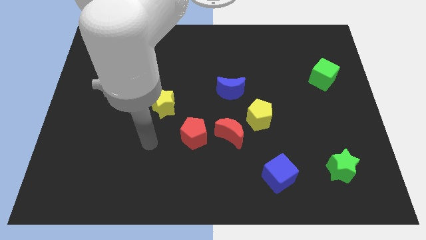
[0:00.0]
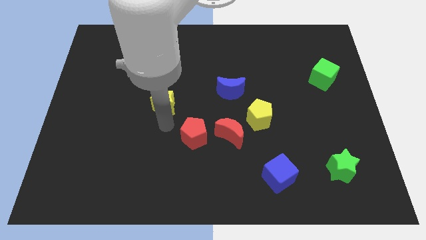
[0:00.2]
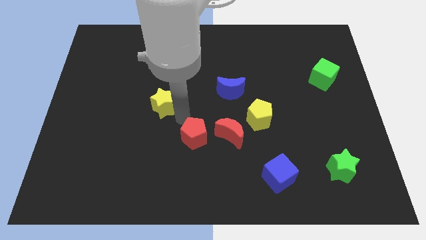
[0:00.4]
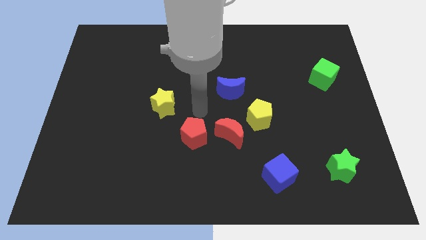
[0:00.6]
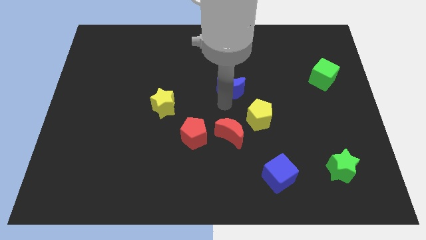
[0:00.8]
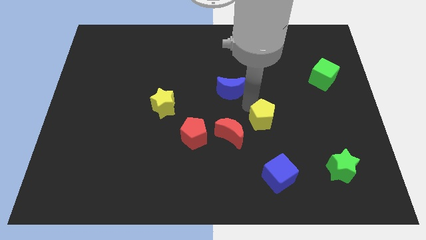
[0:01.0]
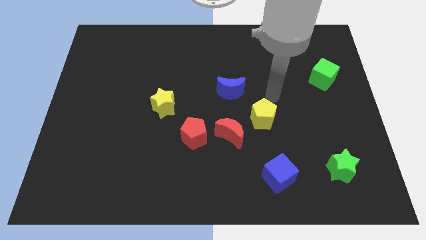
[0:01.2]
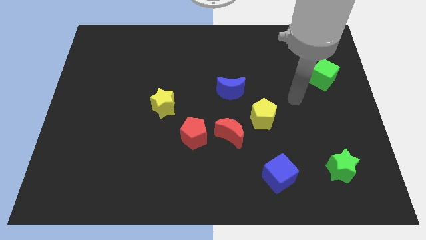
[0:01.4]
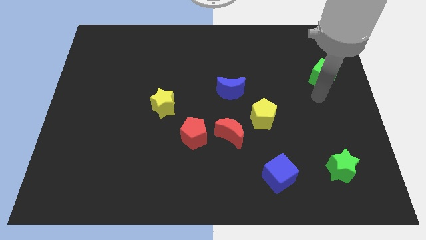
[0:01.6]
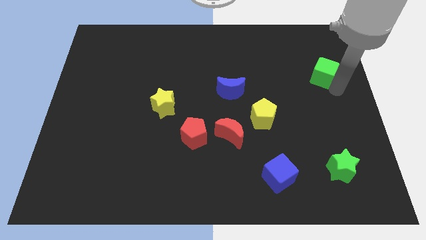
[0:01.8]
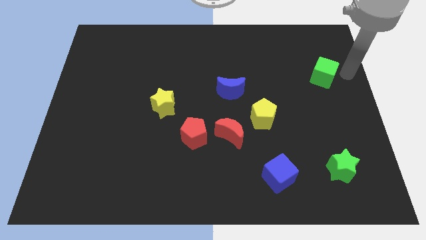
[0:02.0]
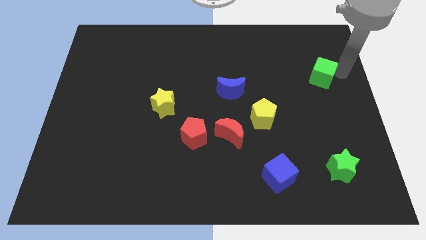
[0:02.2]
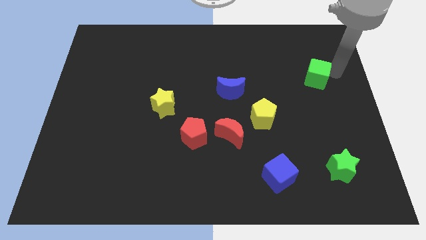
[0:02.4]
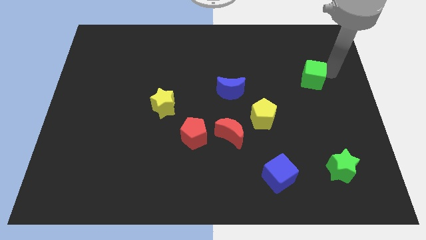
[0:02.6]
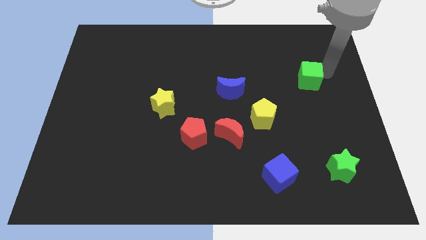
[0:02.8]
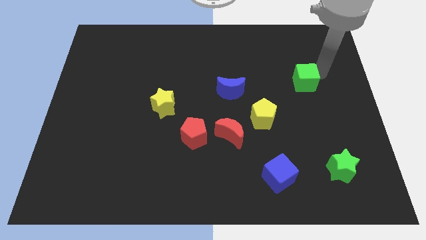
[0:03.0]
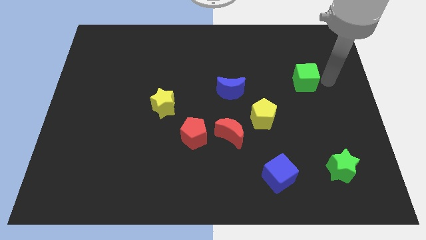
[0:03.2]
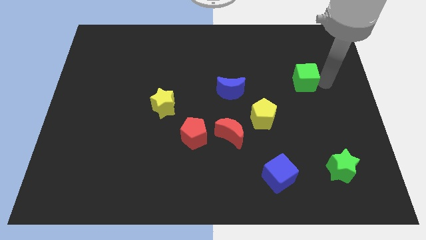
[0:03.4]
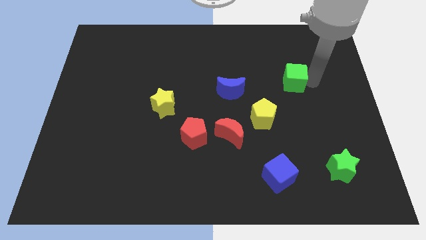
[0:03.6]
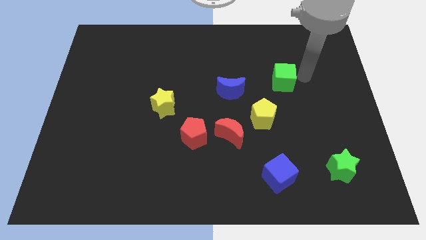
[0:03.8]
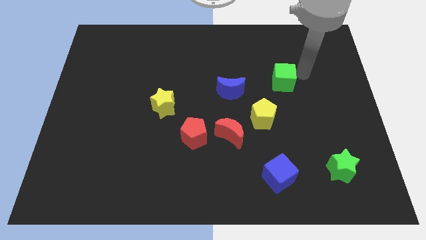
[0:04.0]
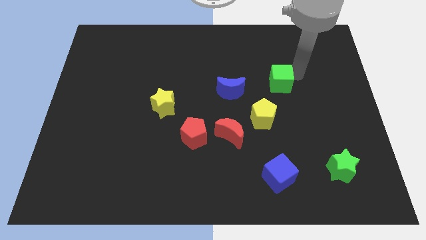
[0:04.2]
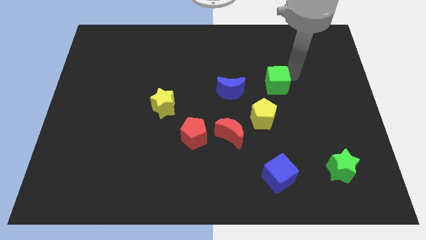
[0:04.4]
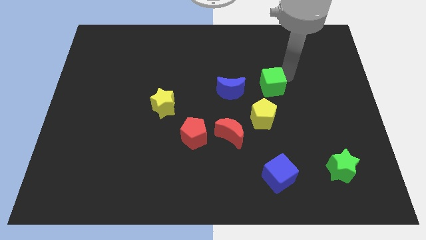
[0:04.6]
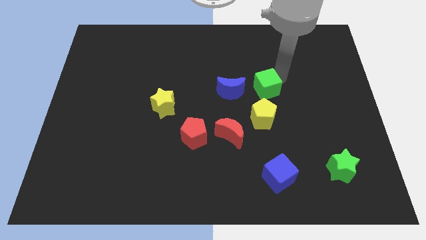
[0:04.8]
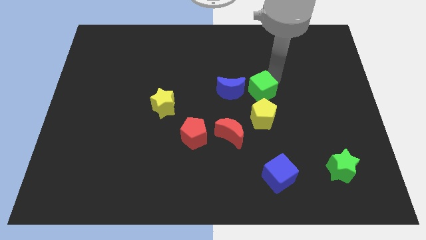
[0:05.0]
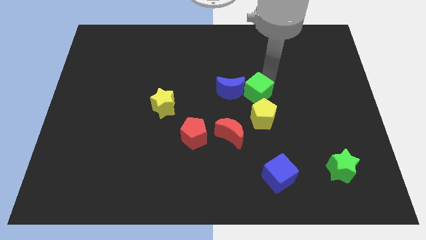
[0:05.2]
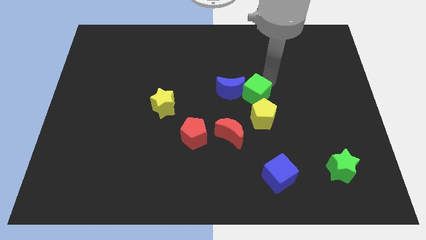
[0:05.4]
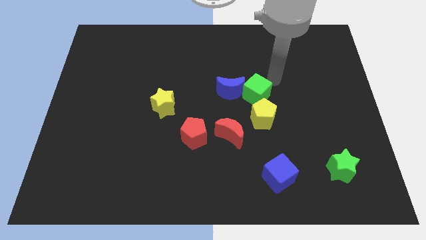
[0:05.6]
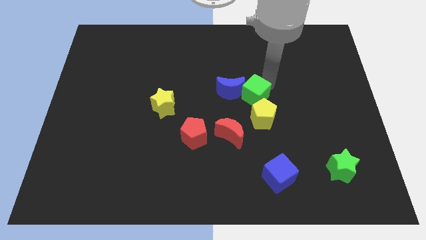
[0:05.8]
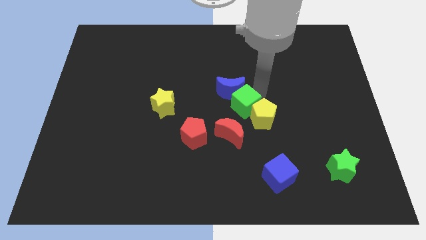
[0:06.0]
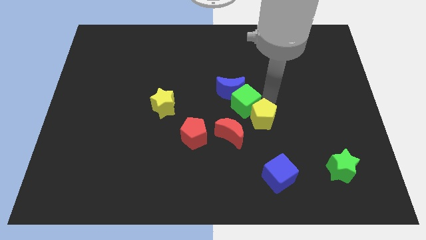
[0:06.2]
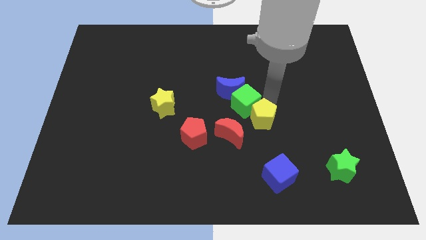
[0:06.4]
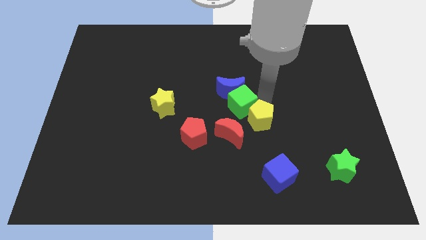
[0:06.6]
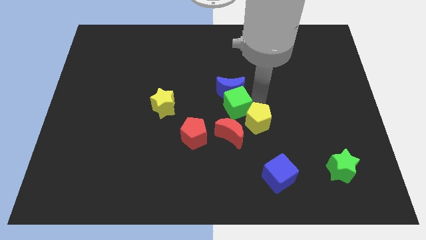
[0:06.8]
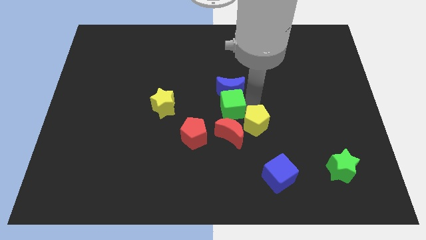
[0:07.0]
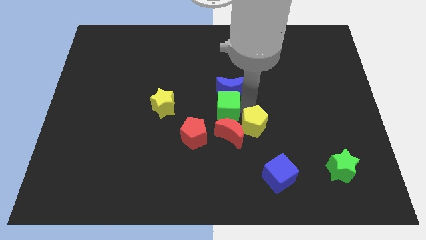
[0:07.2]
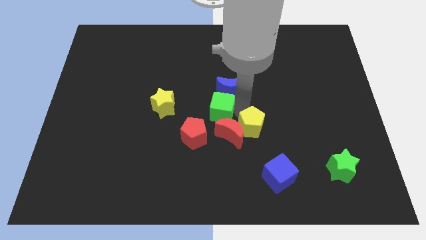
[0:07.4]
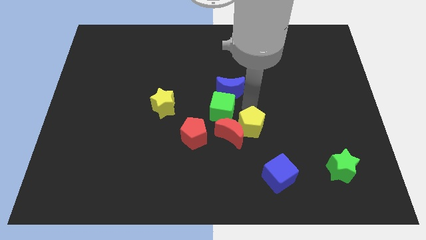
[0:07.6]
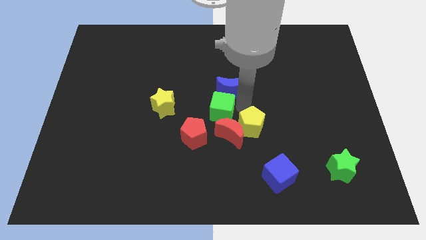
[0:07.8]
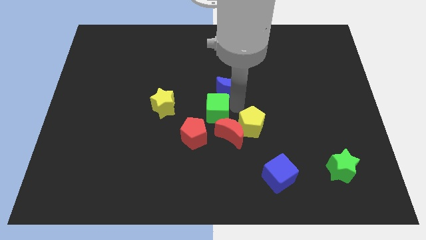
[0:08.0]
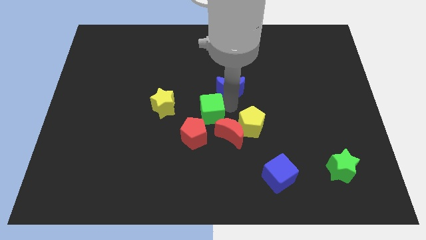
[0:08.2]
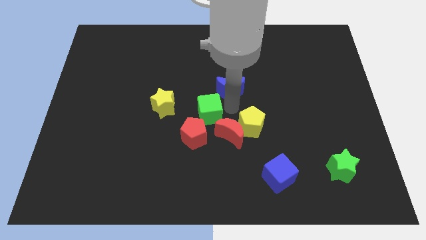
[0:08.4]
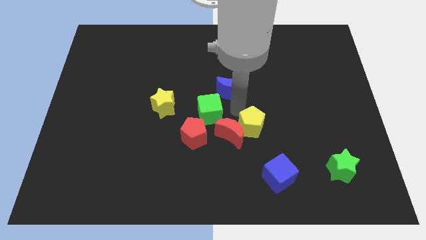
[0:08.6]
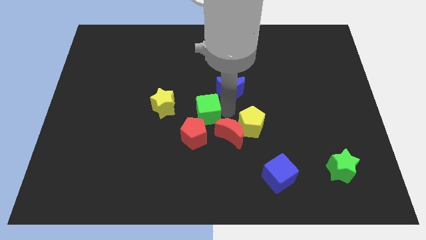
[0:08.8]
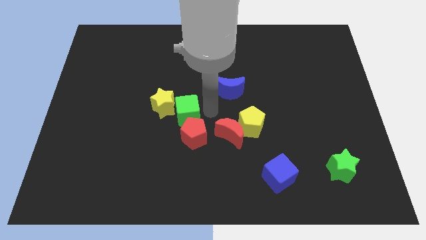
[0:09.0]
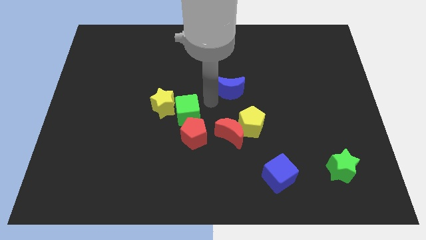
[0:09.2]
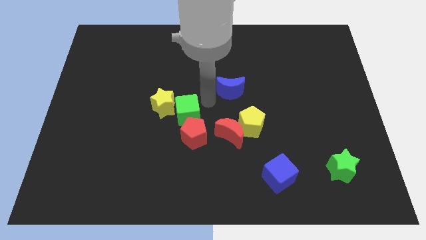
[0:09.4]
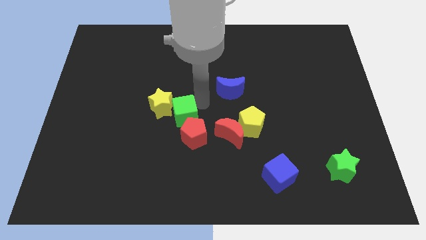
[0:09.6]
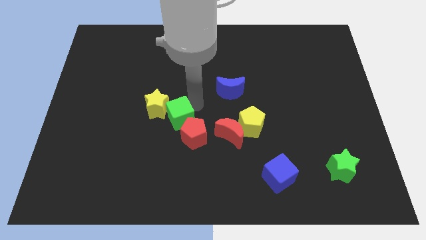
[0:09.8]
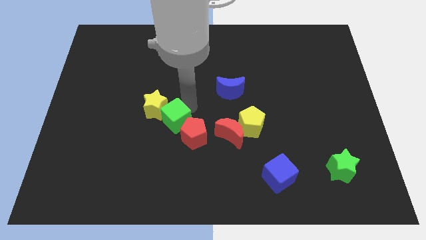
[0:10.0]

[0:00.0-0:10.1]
slide the green cube to the left of the red pentagon

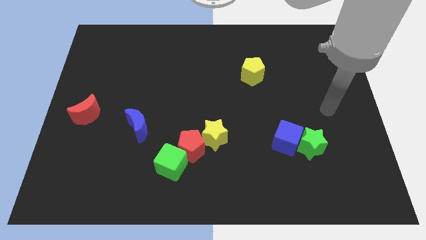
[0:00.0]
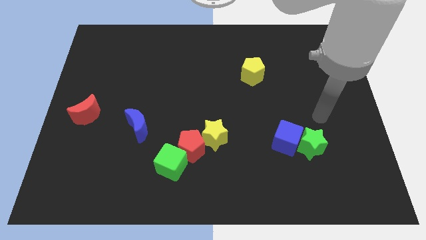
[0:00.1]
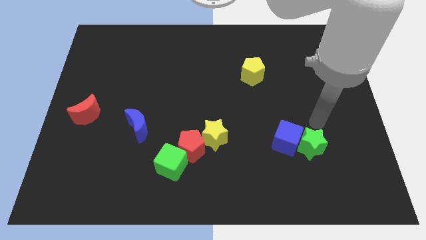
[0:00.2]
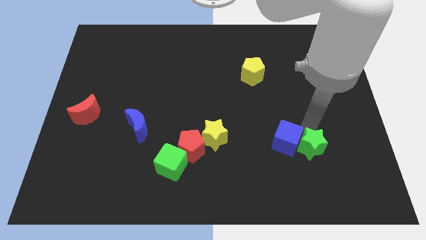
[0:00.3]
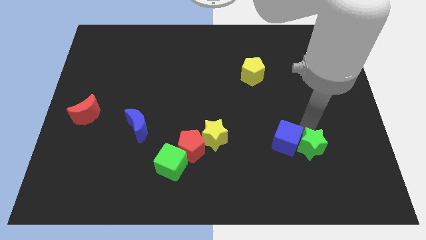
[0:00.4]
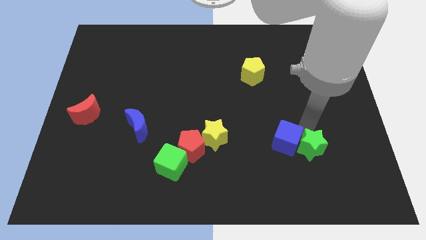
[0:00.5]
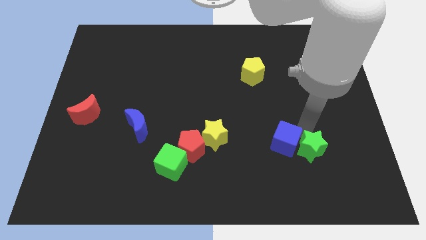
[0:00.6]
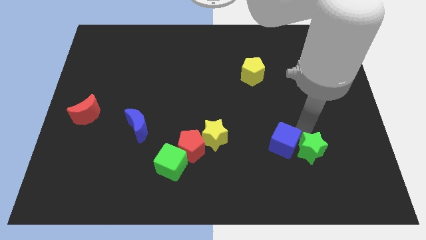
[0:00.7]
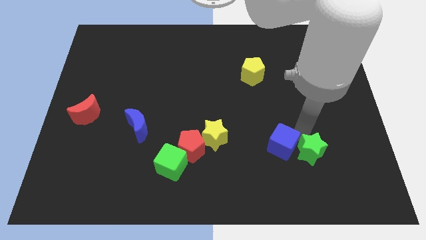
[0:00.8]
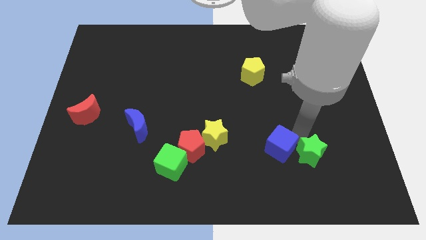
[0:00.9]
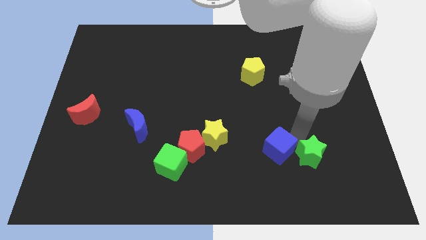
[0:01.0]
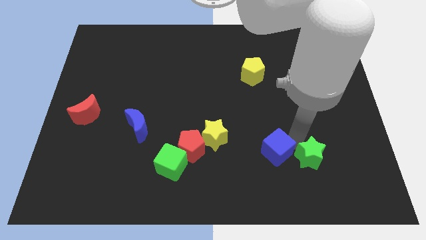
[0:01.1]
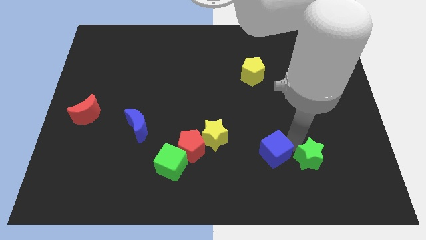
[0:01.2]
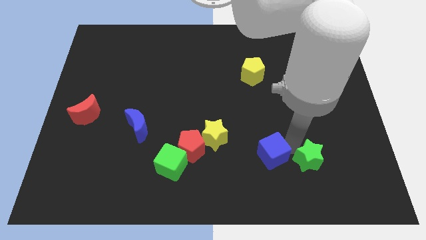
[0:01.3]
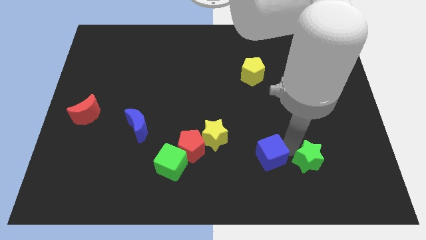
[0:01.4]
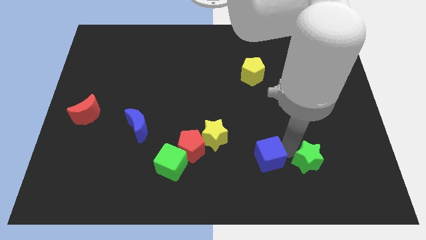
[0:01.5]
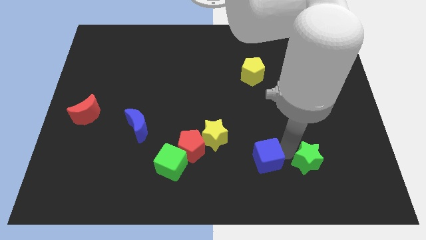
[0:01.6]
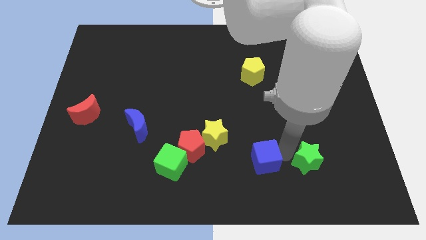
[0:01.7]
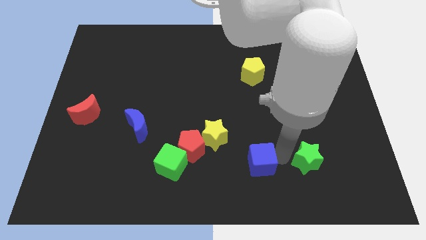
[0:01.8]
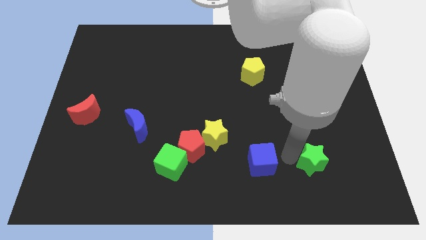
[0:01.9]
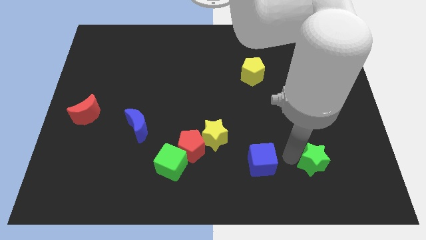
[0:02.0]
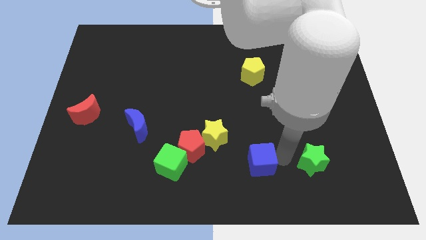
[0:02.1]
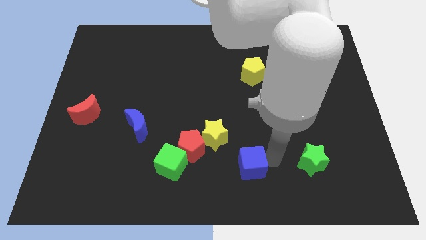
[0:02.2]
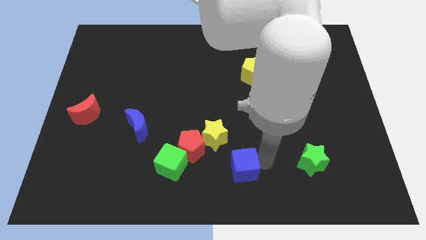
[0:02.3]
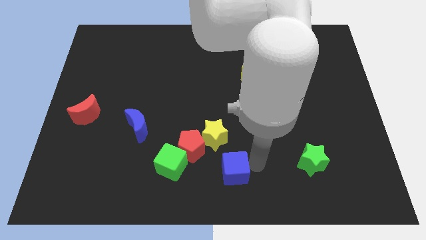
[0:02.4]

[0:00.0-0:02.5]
push the blue cube diagonally down and to the right of the red pentagon
